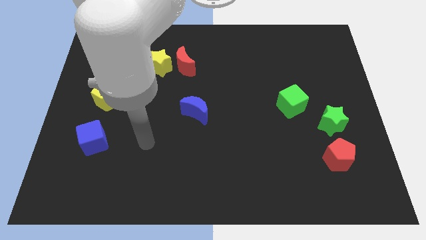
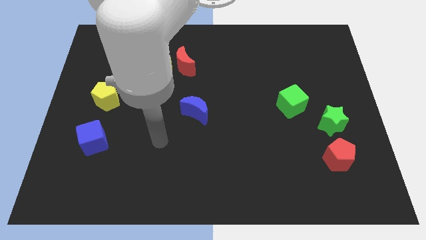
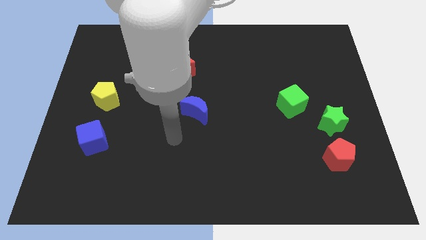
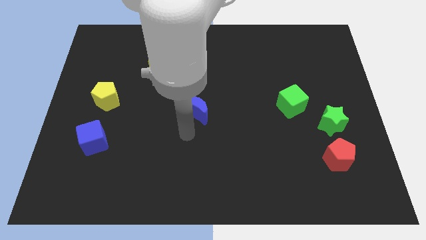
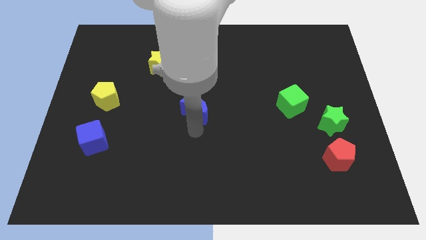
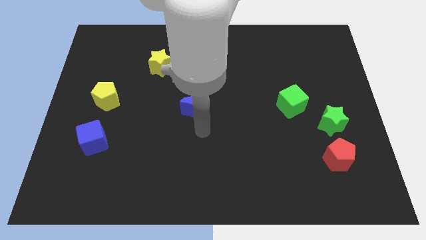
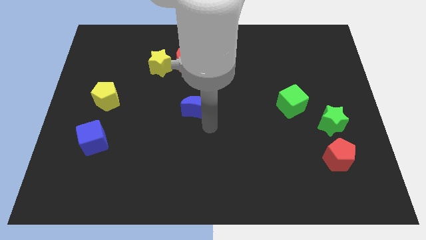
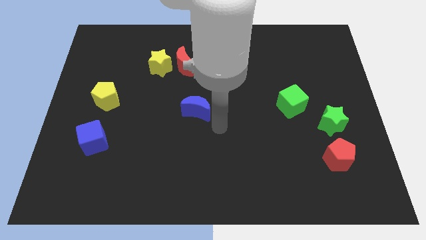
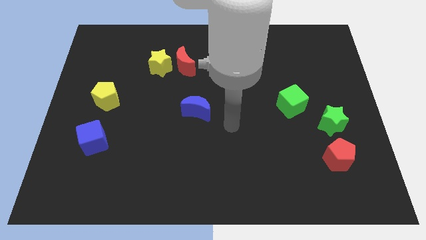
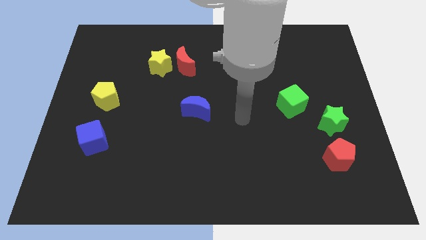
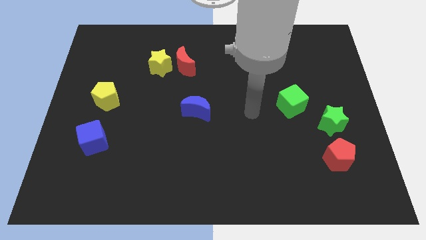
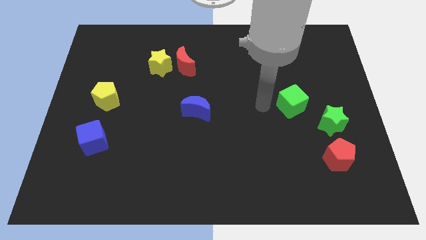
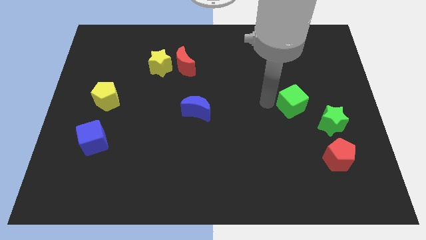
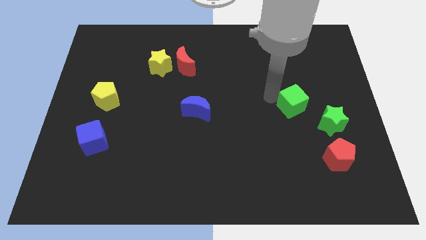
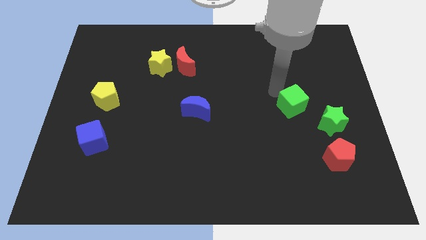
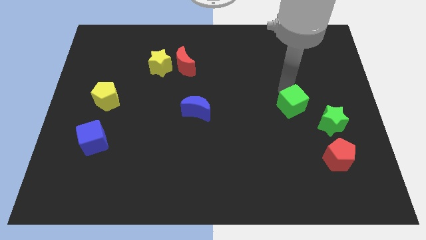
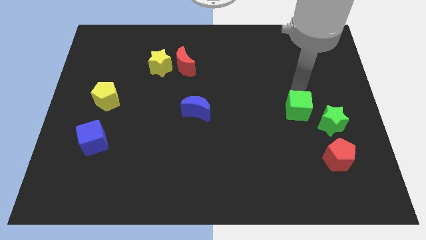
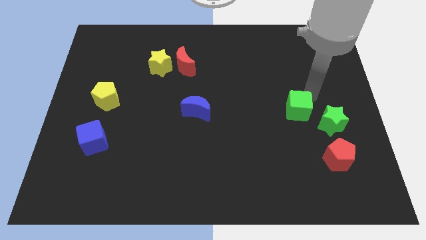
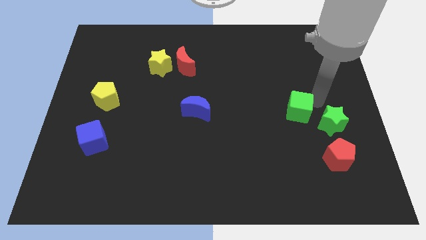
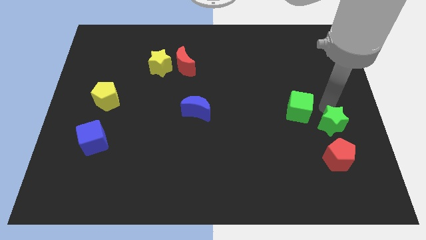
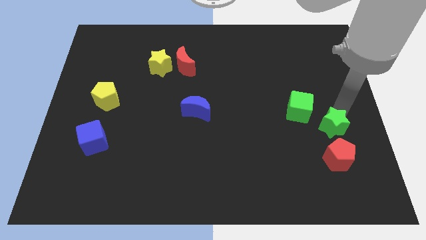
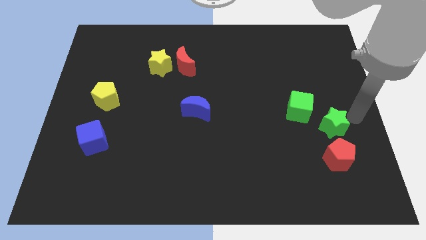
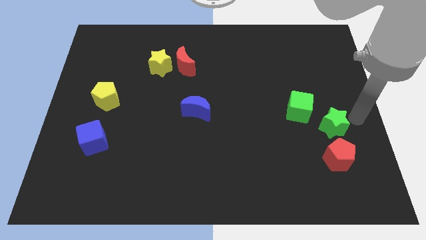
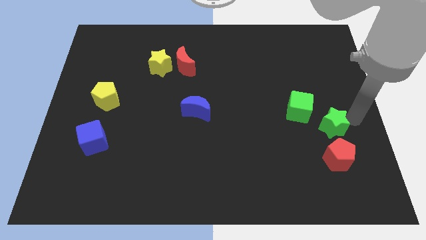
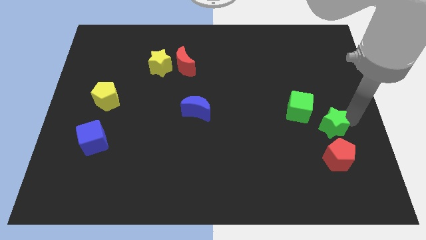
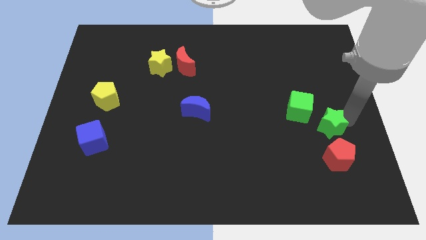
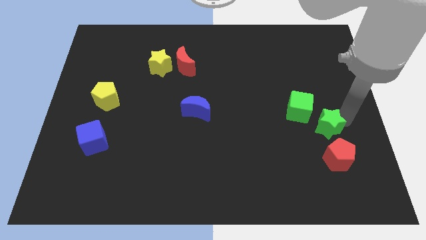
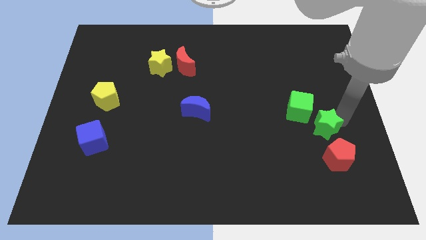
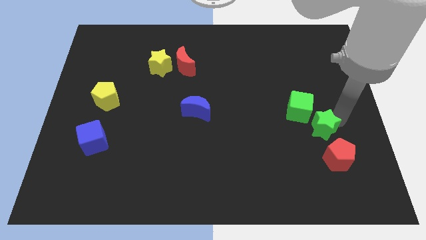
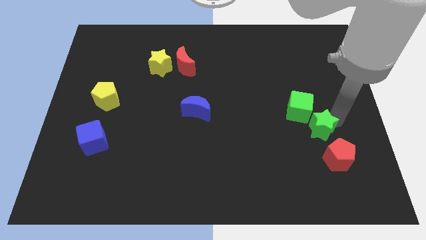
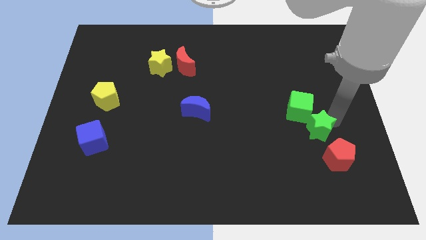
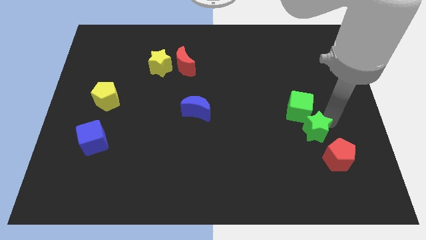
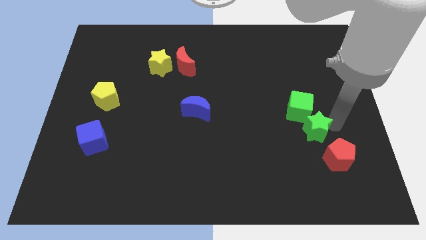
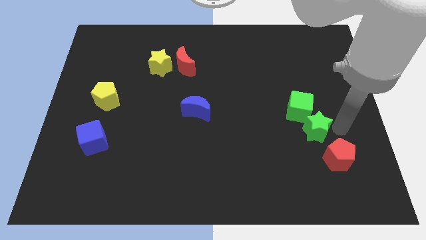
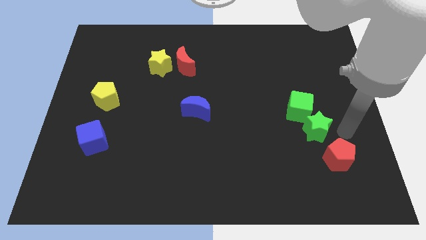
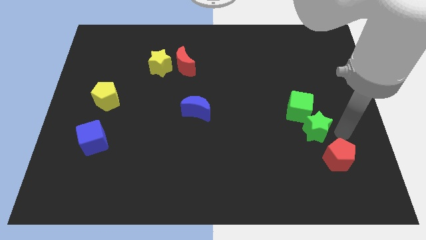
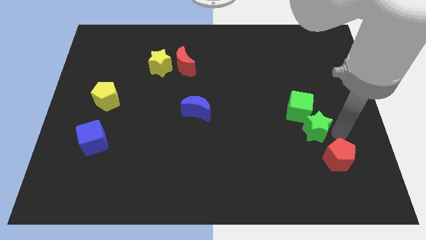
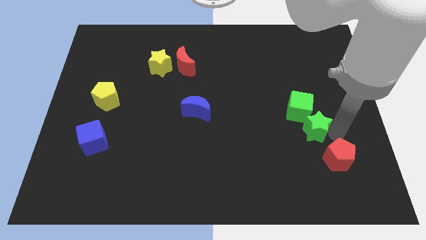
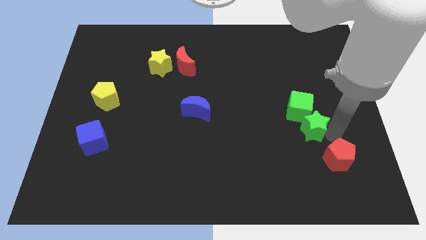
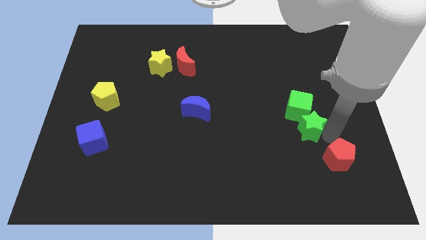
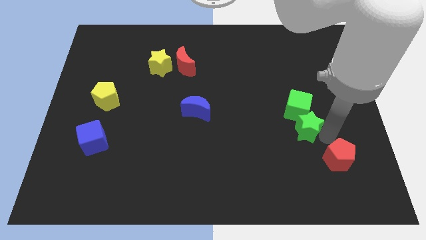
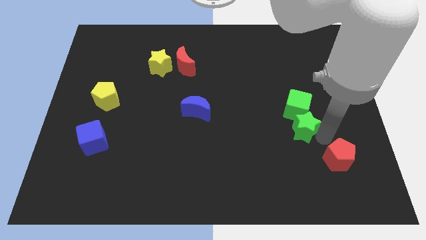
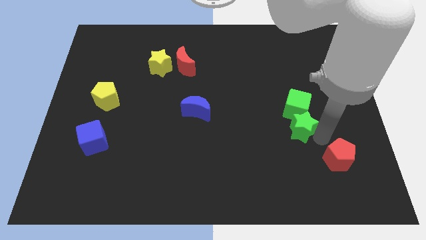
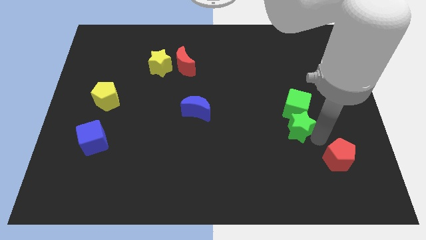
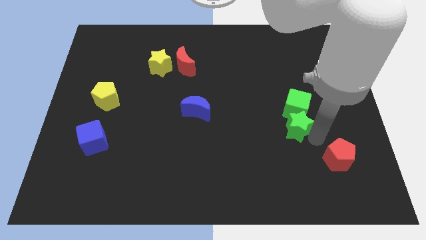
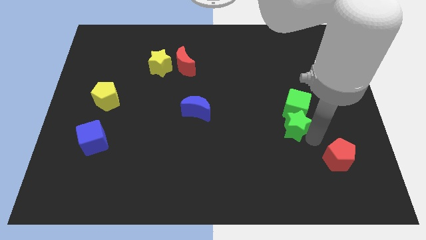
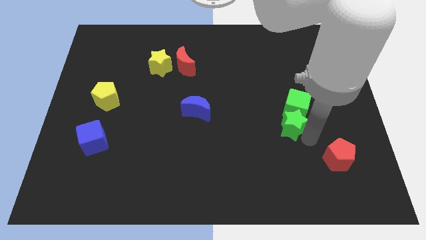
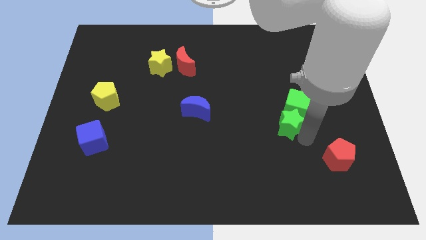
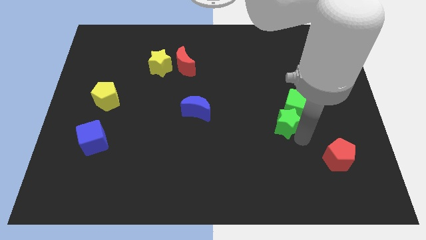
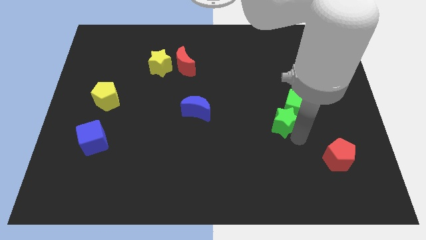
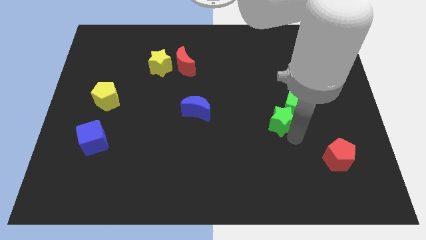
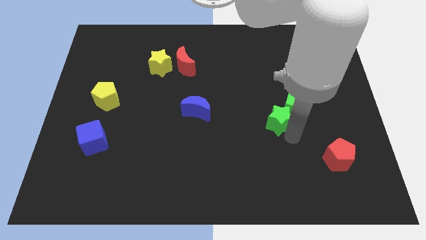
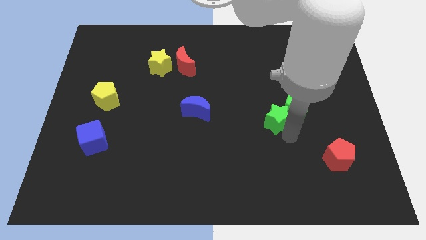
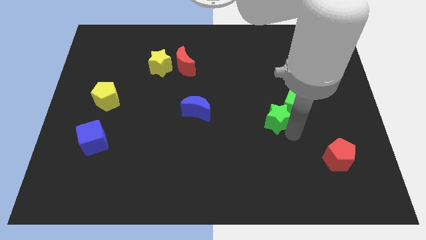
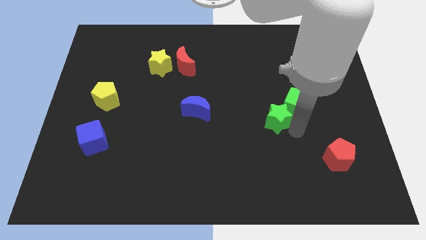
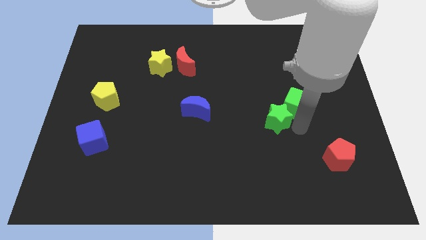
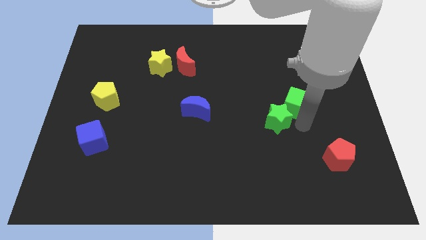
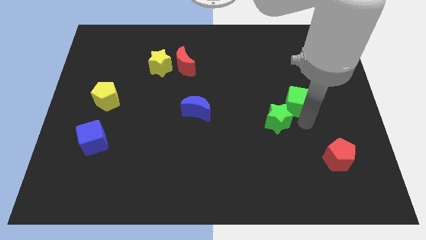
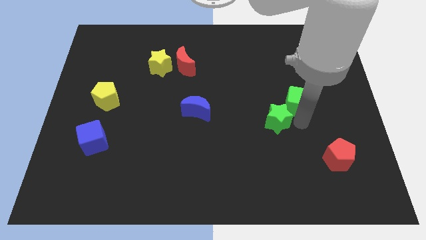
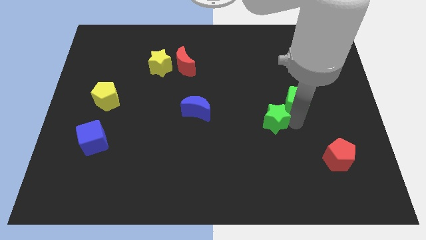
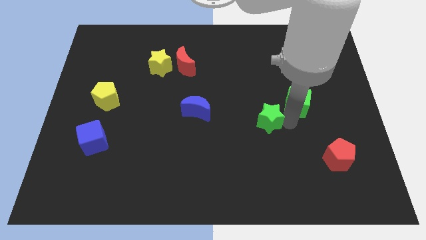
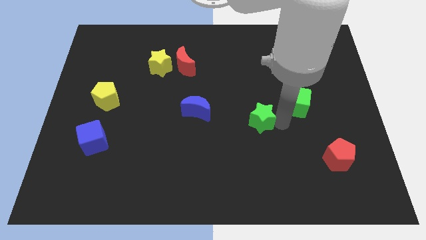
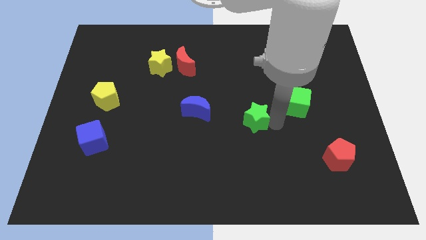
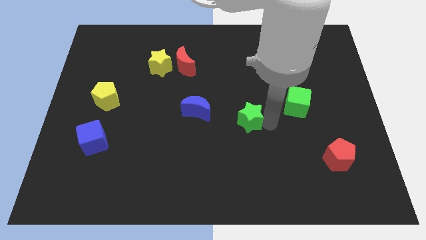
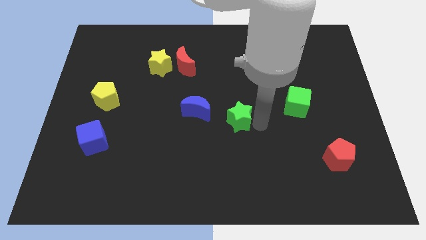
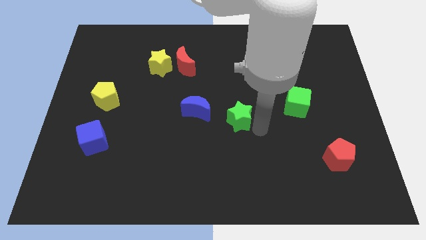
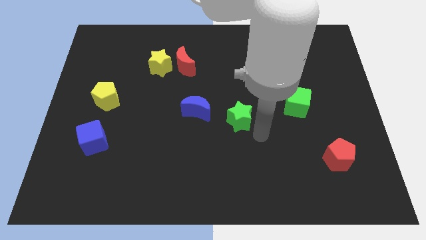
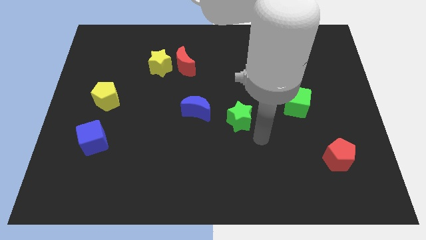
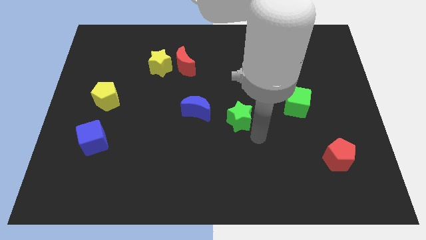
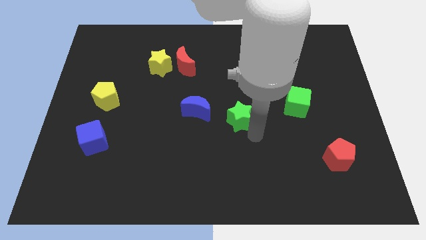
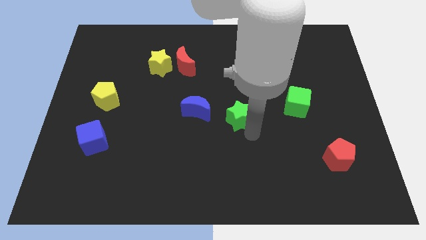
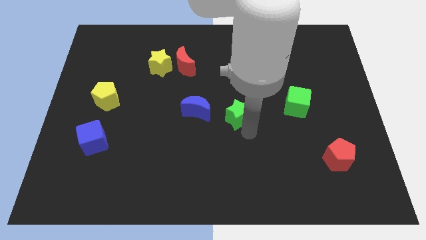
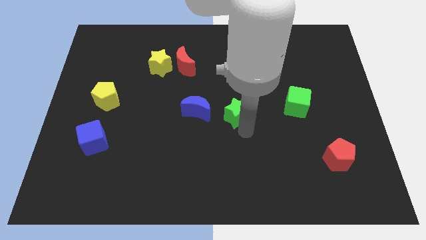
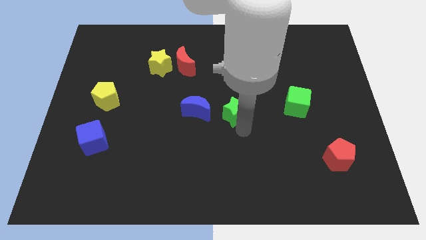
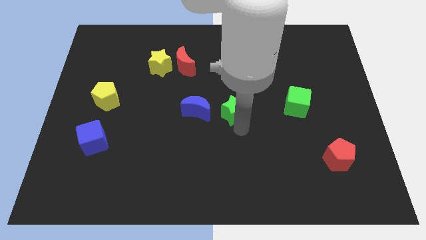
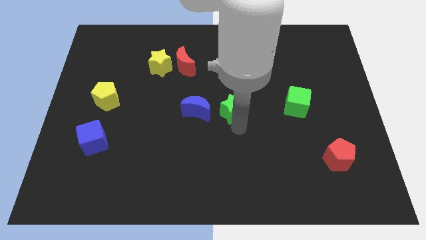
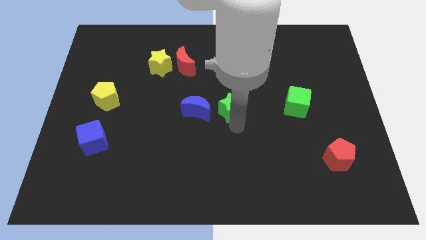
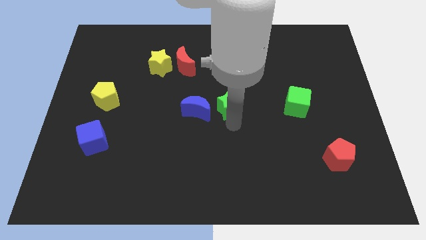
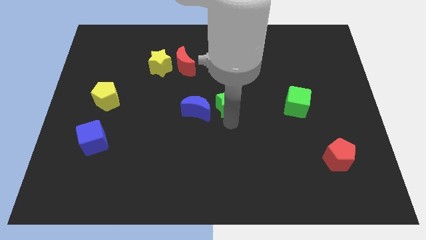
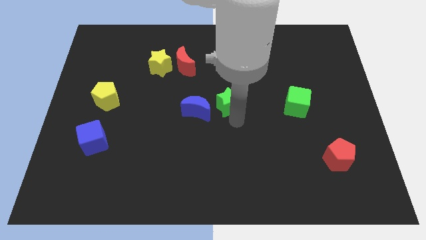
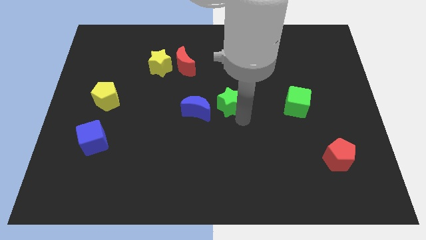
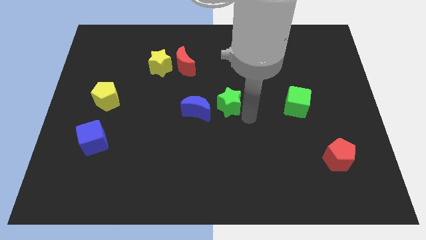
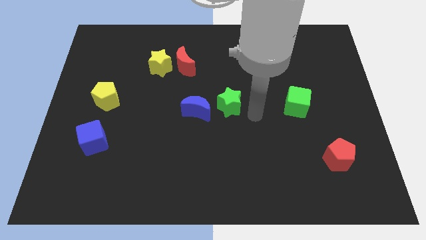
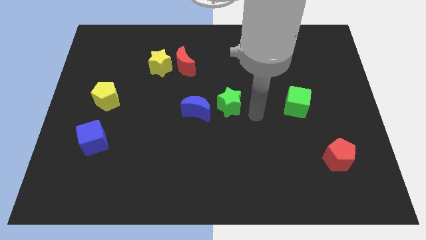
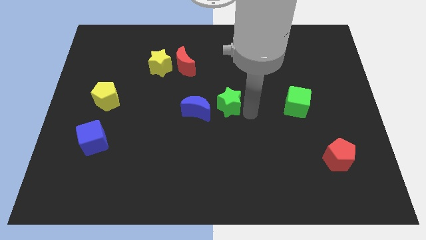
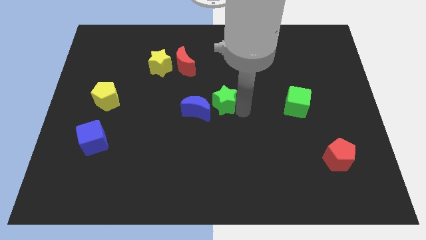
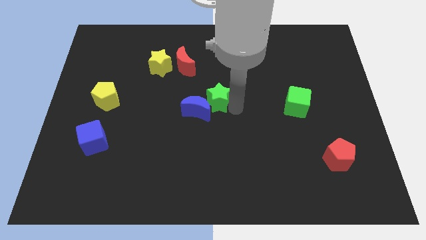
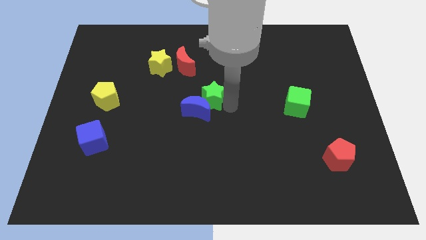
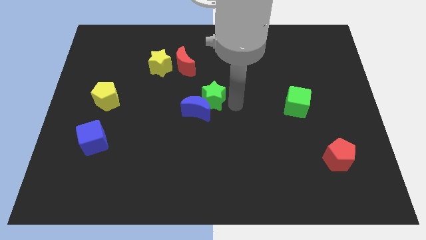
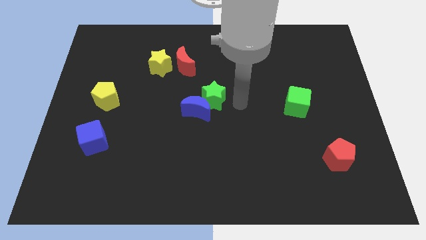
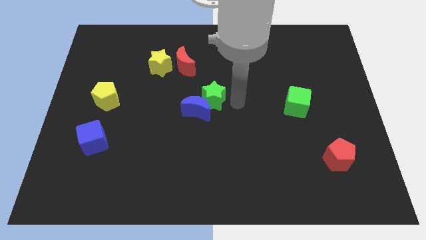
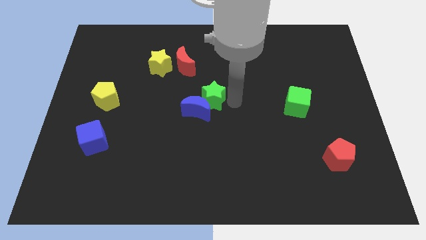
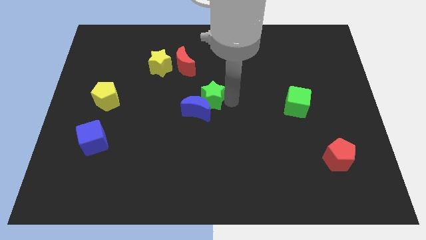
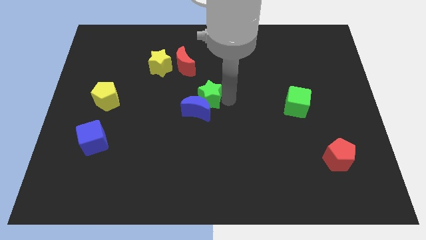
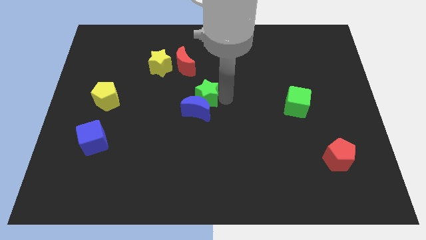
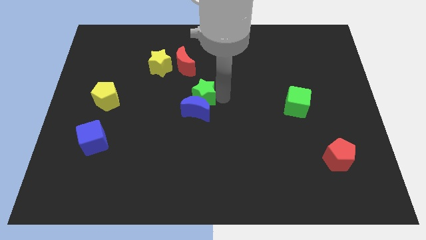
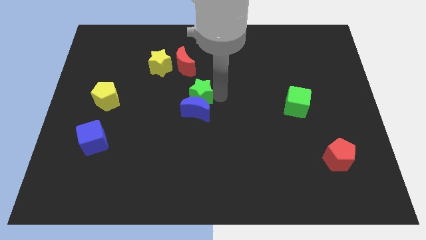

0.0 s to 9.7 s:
push the green star to the bottom of the red moon
